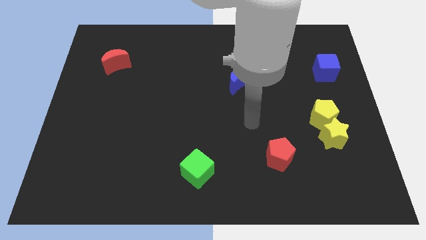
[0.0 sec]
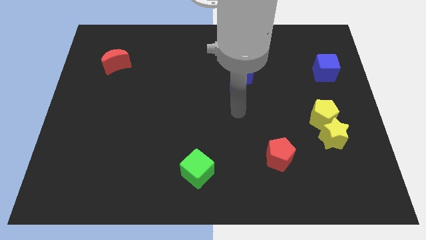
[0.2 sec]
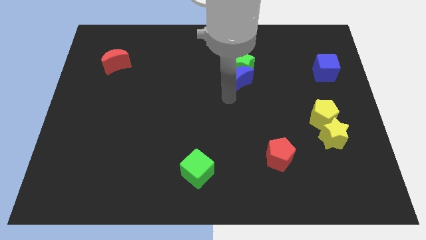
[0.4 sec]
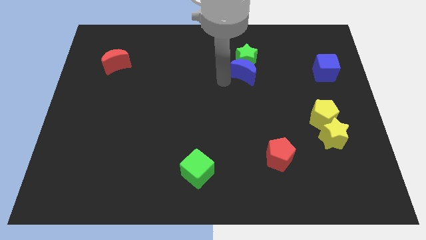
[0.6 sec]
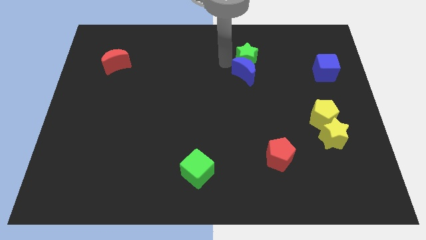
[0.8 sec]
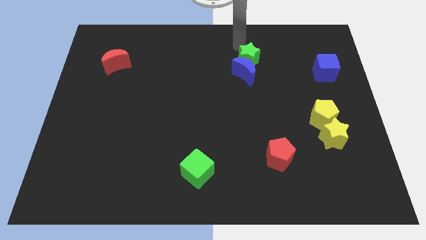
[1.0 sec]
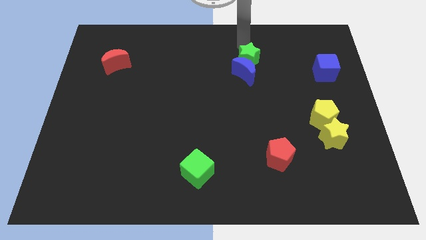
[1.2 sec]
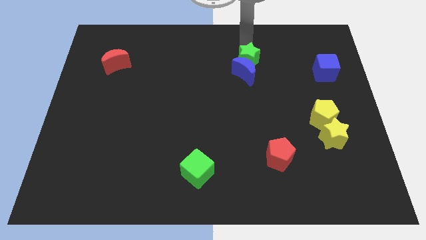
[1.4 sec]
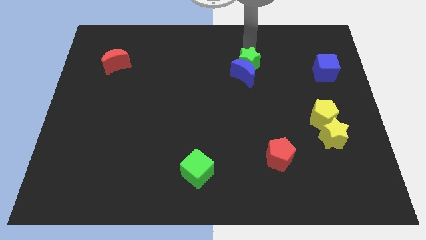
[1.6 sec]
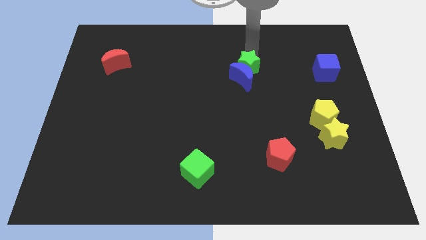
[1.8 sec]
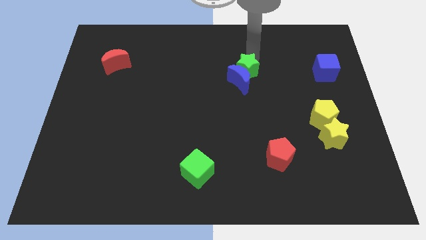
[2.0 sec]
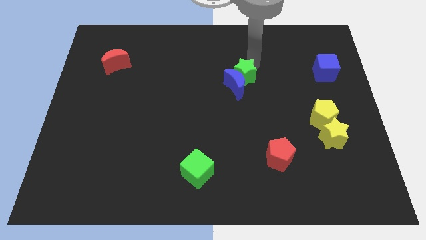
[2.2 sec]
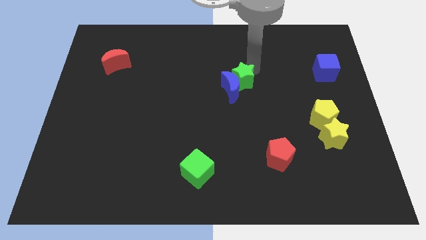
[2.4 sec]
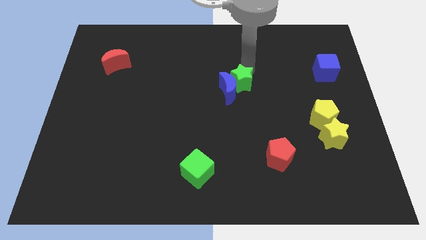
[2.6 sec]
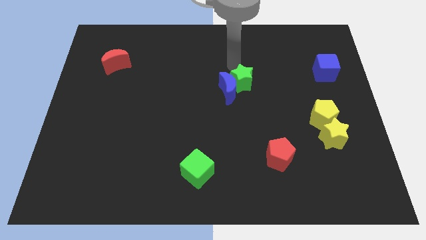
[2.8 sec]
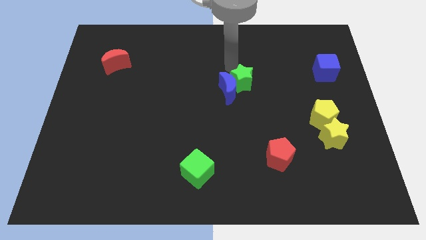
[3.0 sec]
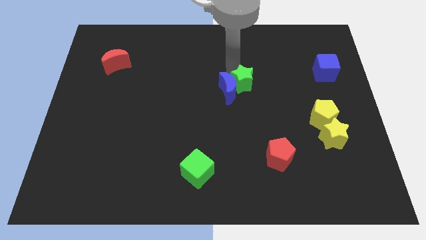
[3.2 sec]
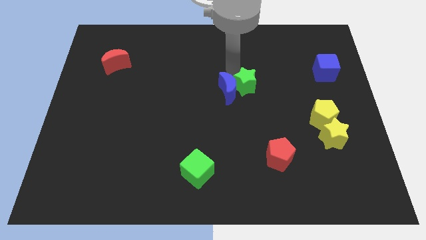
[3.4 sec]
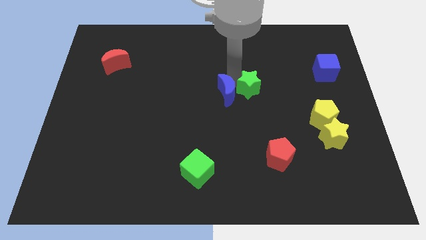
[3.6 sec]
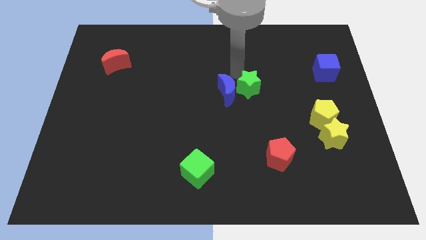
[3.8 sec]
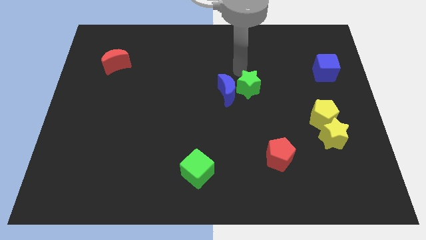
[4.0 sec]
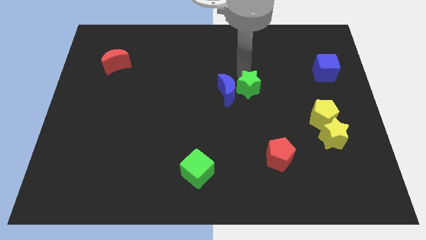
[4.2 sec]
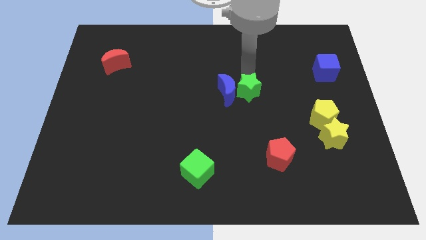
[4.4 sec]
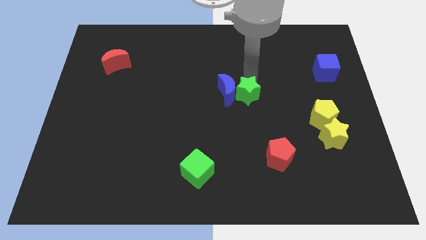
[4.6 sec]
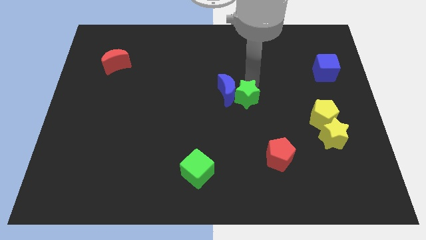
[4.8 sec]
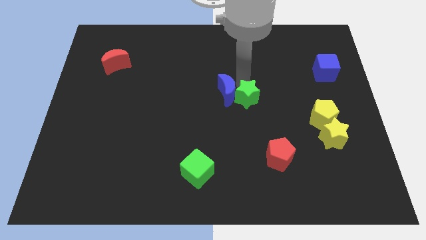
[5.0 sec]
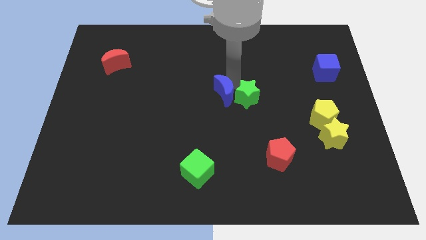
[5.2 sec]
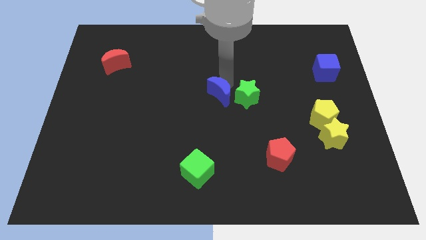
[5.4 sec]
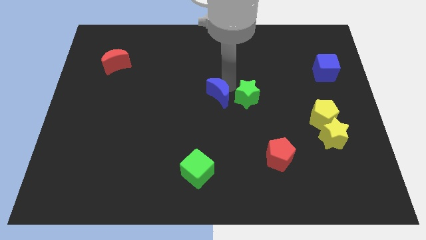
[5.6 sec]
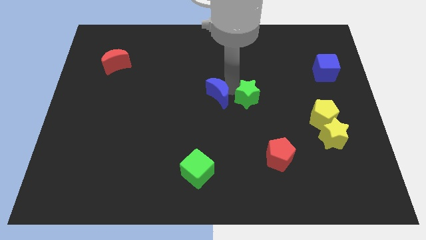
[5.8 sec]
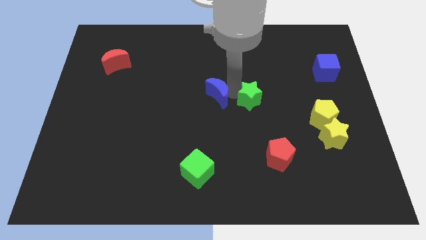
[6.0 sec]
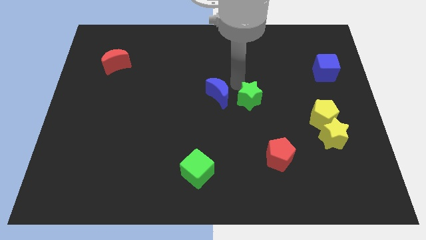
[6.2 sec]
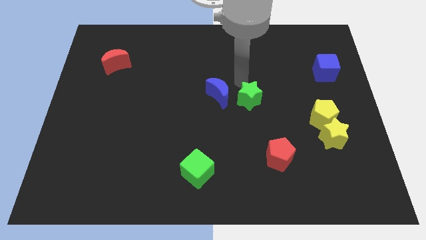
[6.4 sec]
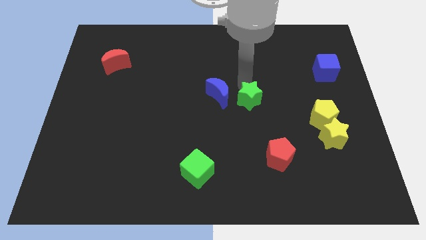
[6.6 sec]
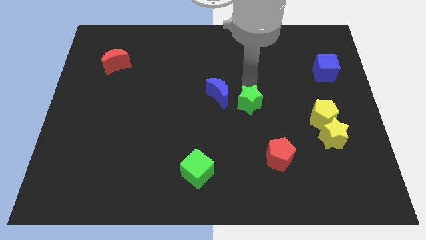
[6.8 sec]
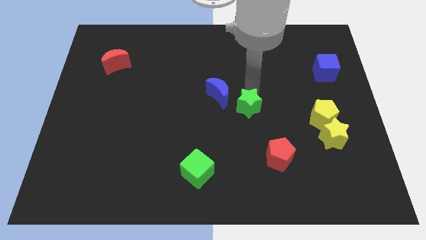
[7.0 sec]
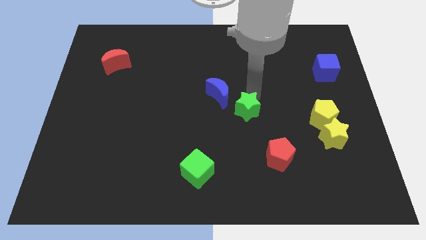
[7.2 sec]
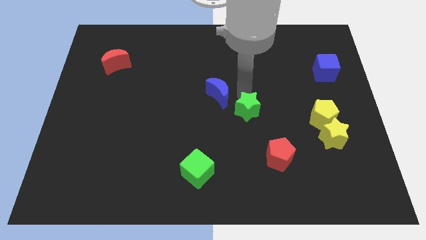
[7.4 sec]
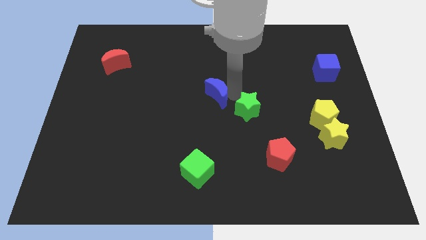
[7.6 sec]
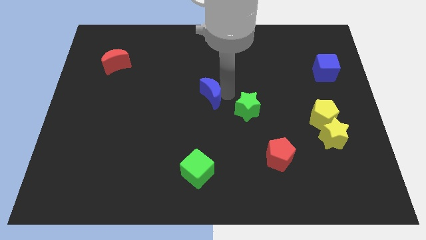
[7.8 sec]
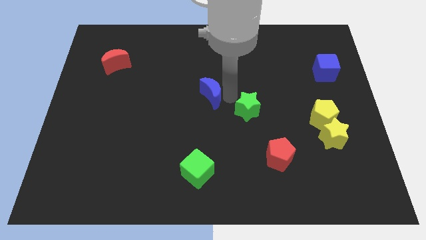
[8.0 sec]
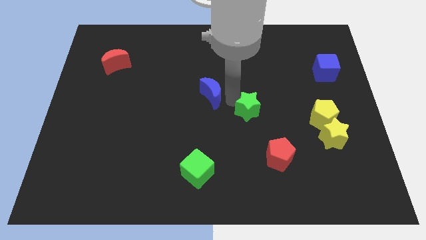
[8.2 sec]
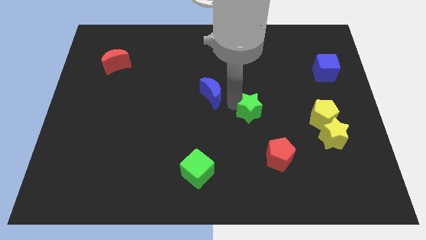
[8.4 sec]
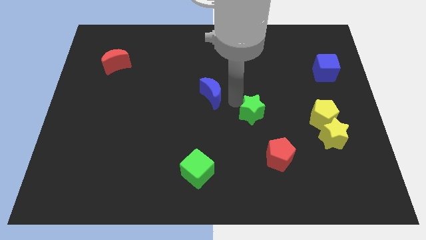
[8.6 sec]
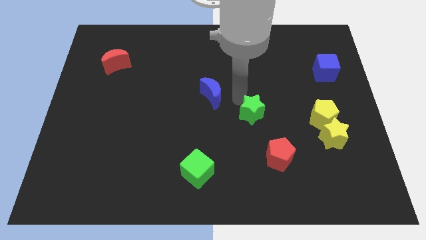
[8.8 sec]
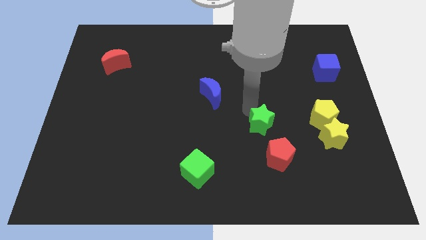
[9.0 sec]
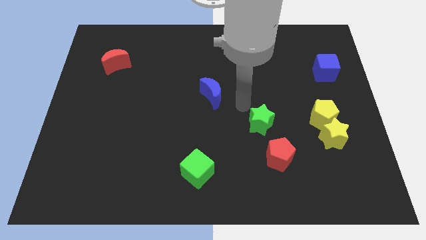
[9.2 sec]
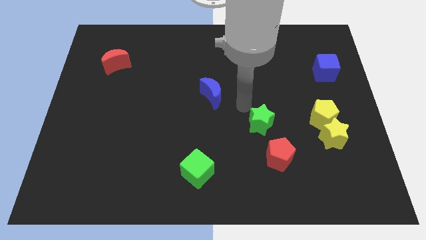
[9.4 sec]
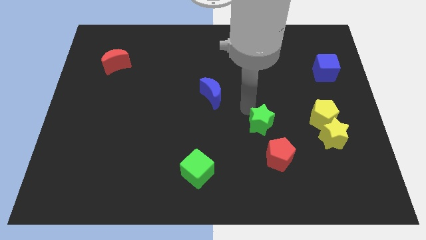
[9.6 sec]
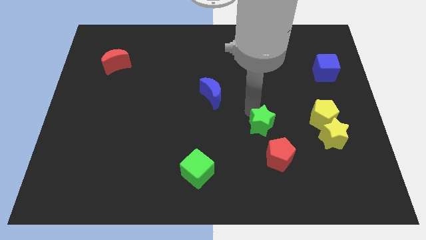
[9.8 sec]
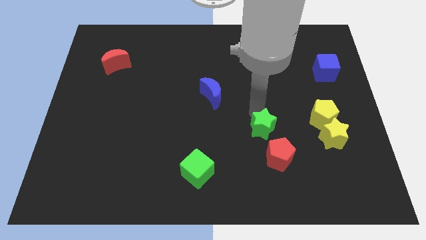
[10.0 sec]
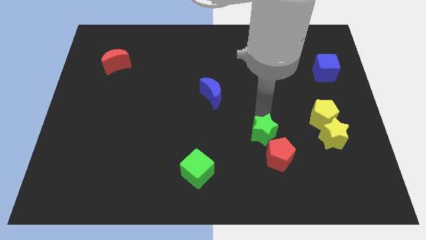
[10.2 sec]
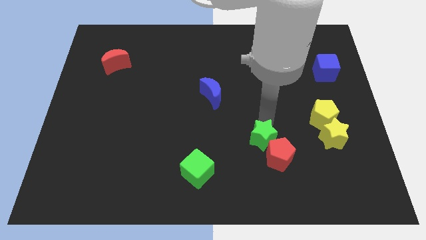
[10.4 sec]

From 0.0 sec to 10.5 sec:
put the green star towards the red pentagon

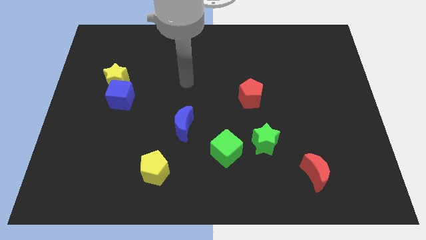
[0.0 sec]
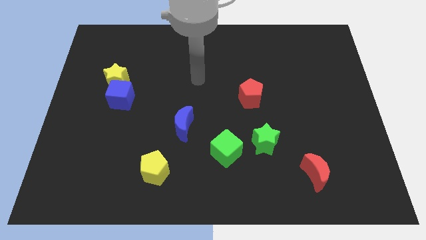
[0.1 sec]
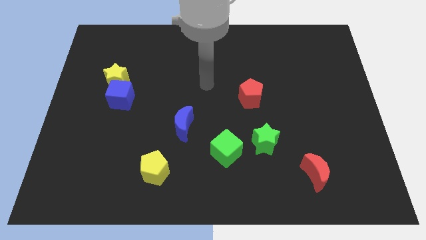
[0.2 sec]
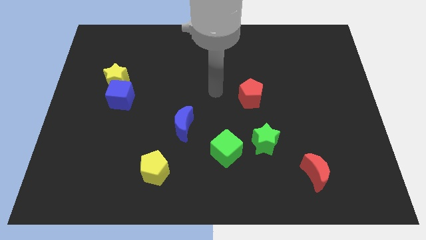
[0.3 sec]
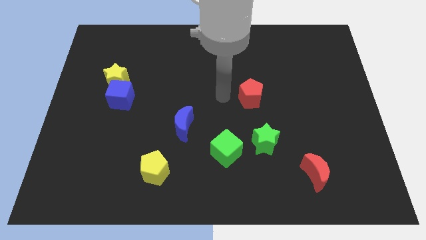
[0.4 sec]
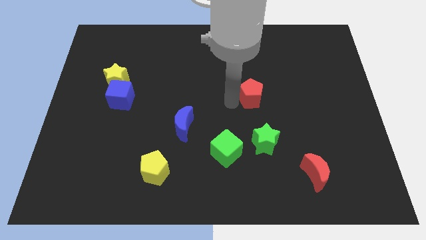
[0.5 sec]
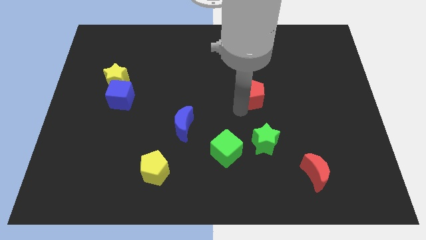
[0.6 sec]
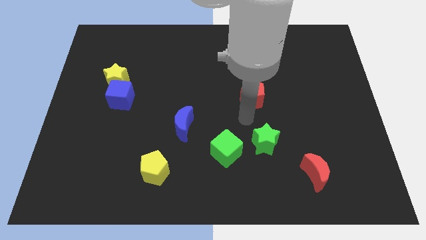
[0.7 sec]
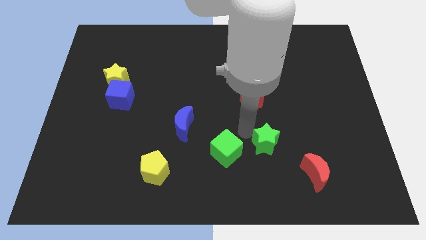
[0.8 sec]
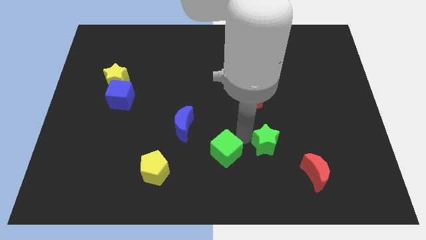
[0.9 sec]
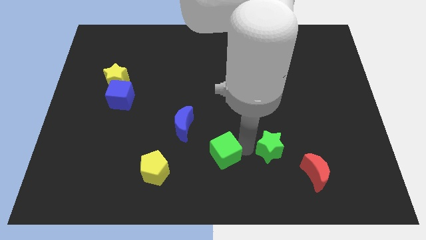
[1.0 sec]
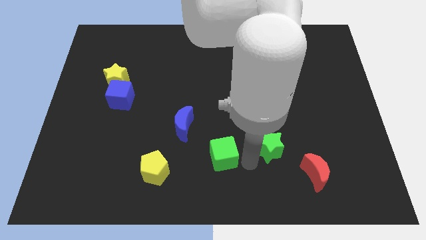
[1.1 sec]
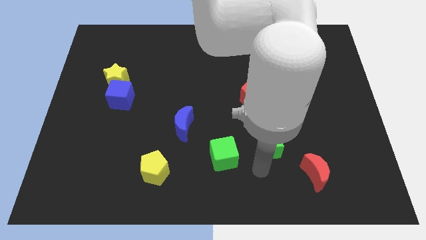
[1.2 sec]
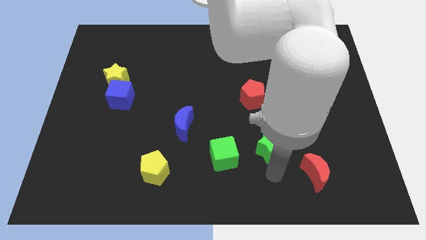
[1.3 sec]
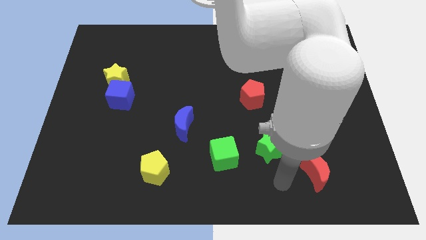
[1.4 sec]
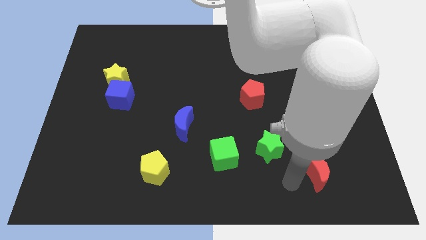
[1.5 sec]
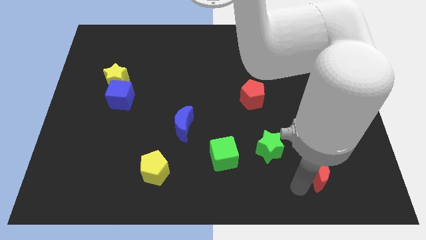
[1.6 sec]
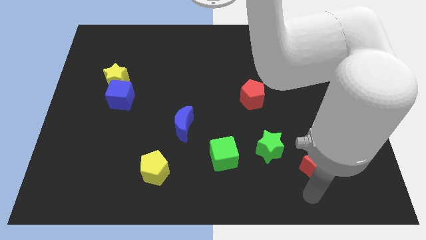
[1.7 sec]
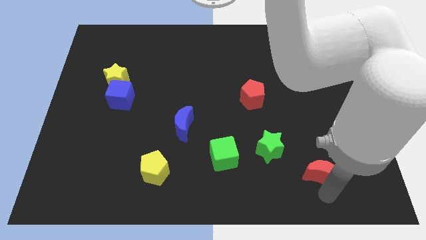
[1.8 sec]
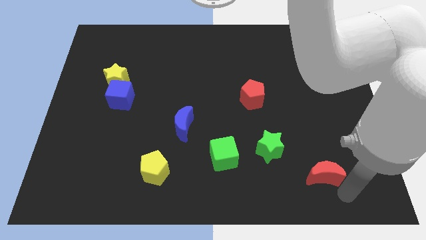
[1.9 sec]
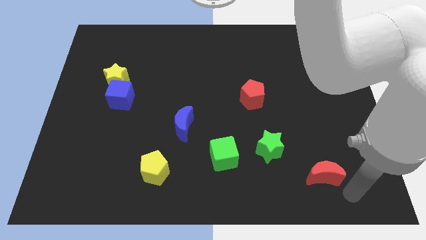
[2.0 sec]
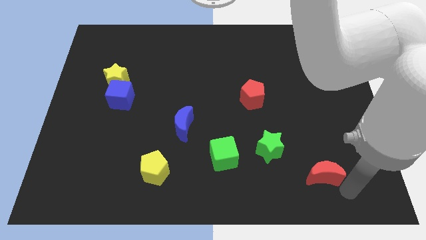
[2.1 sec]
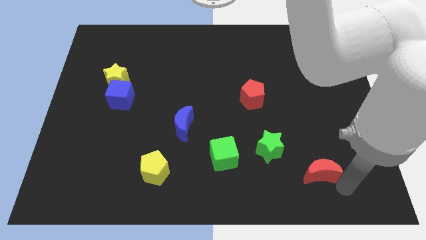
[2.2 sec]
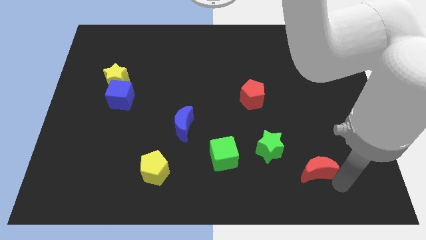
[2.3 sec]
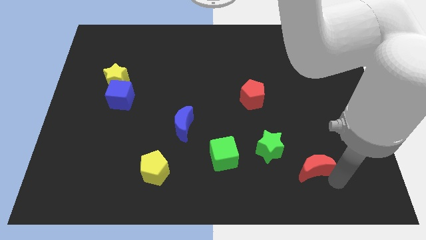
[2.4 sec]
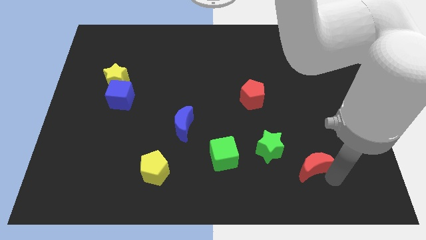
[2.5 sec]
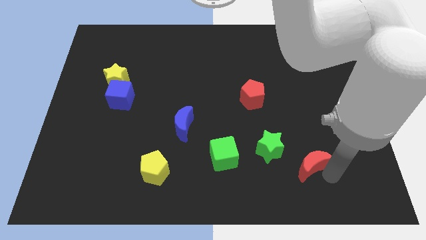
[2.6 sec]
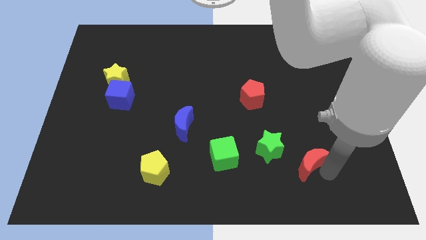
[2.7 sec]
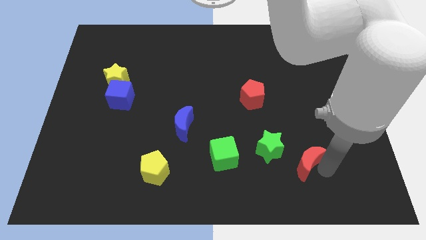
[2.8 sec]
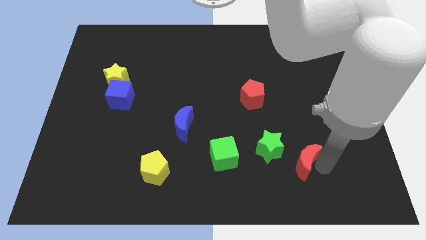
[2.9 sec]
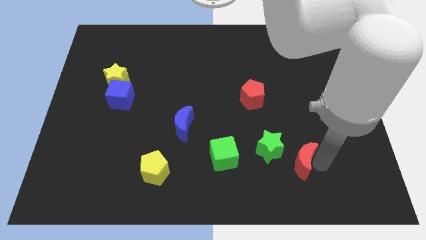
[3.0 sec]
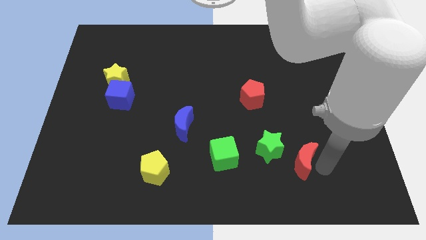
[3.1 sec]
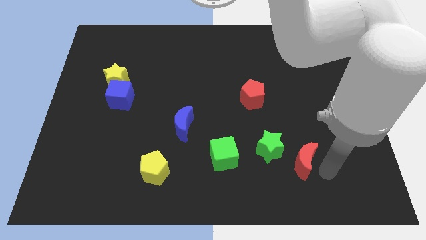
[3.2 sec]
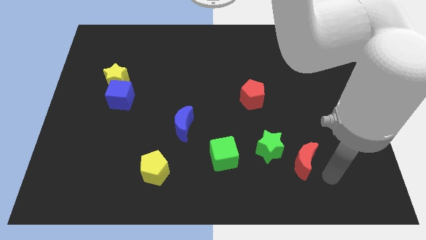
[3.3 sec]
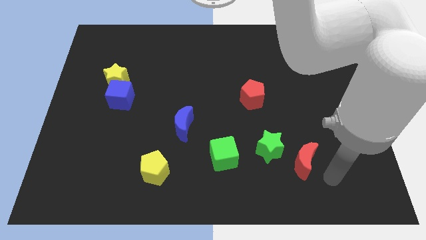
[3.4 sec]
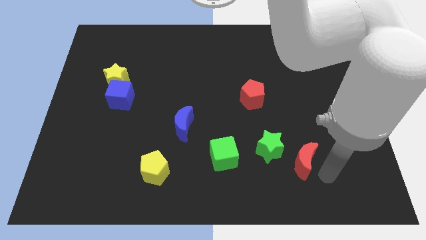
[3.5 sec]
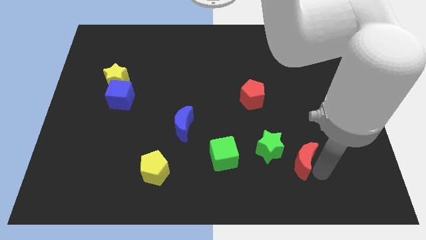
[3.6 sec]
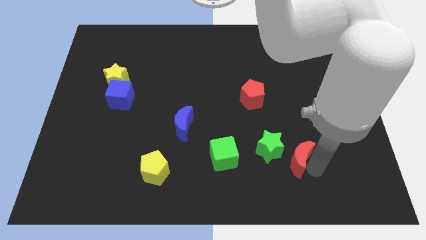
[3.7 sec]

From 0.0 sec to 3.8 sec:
move the red moon next to the green star
